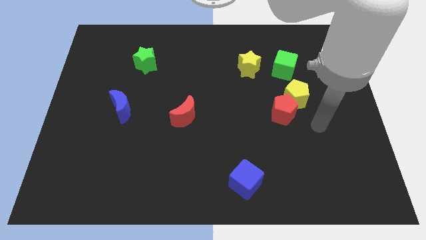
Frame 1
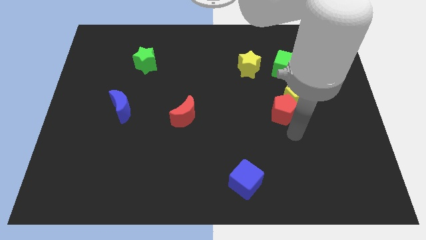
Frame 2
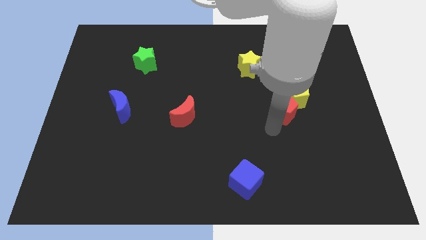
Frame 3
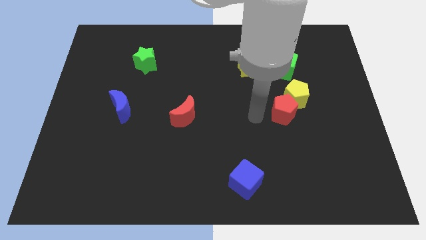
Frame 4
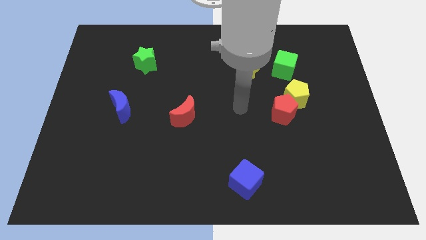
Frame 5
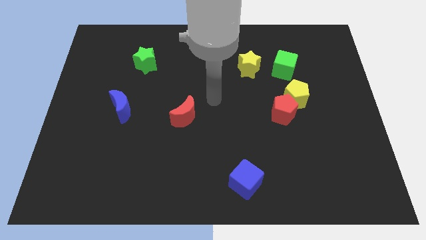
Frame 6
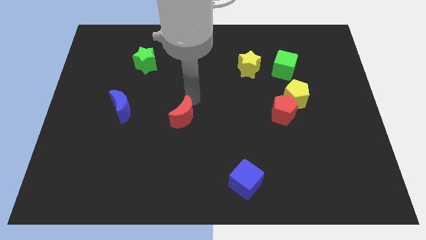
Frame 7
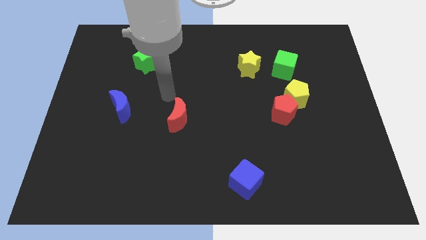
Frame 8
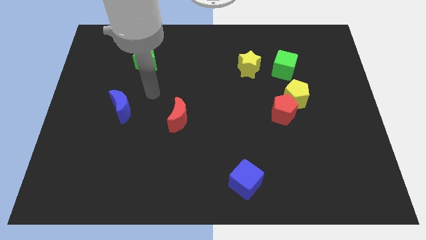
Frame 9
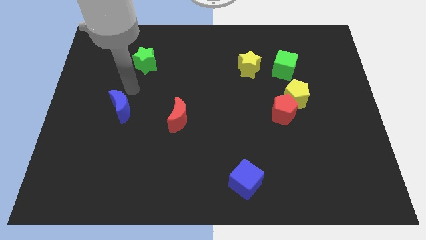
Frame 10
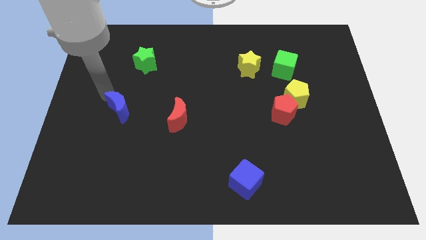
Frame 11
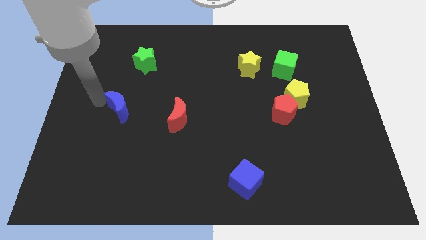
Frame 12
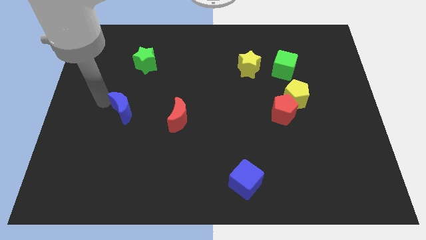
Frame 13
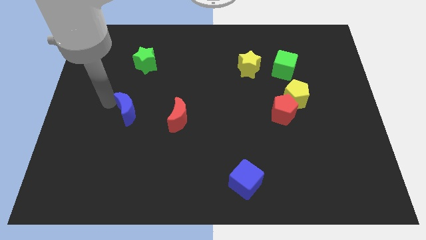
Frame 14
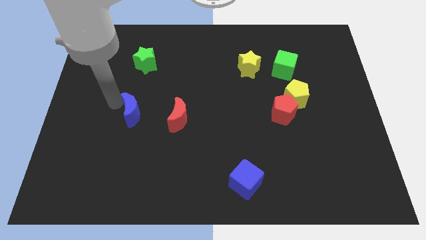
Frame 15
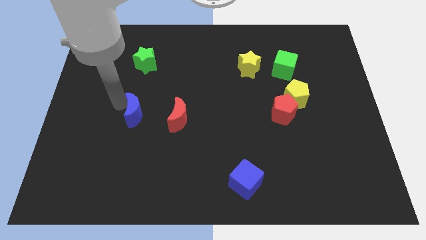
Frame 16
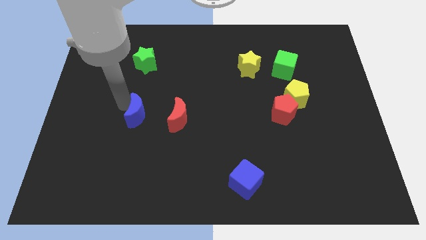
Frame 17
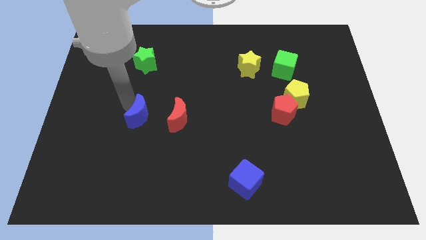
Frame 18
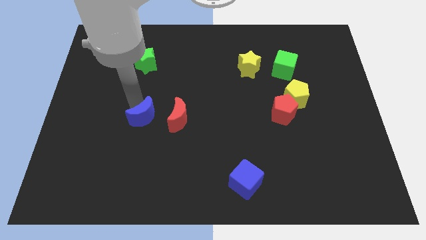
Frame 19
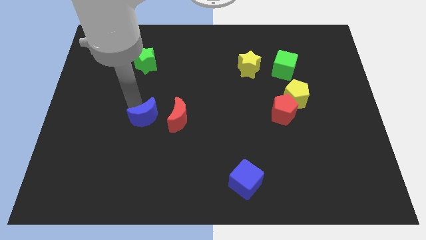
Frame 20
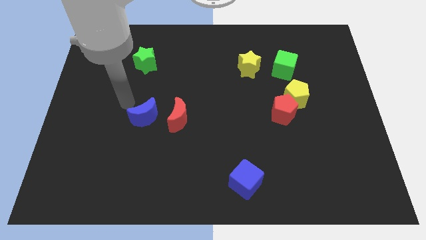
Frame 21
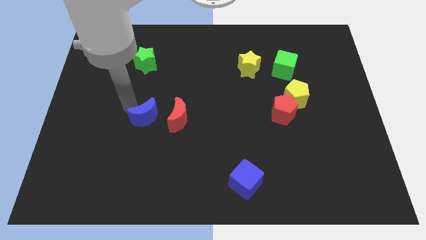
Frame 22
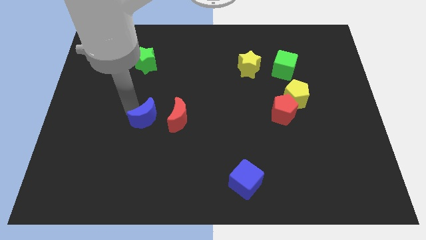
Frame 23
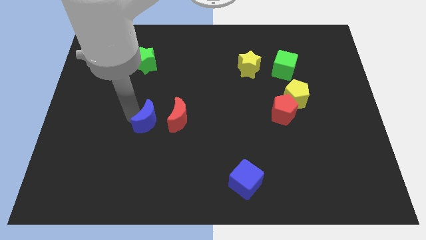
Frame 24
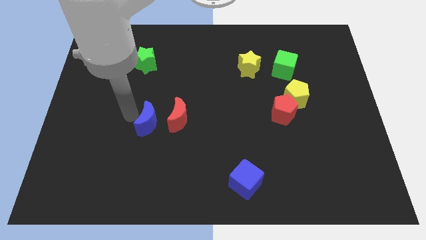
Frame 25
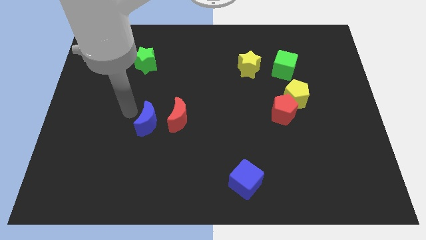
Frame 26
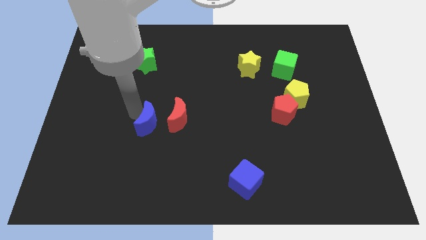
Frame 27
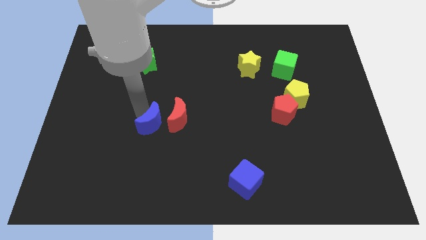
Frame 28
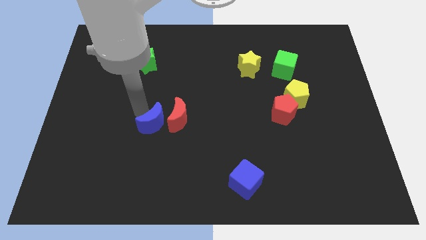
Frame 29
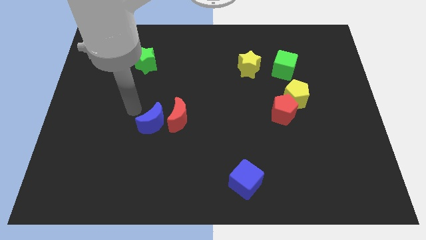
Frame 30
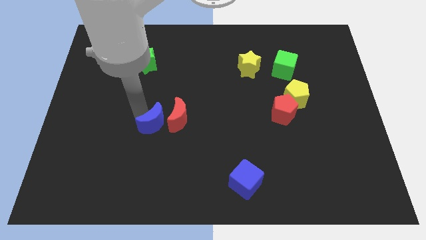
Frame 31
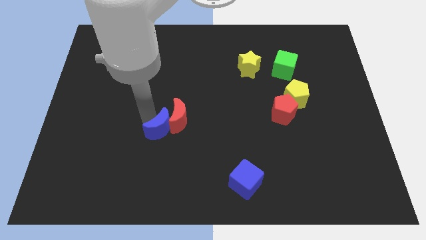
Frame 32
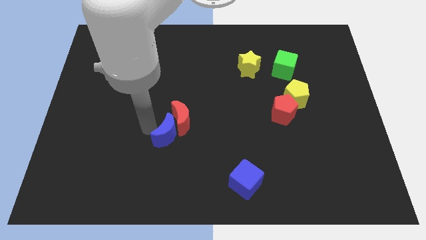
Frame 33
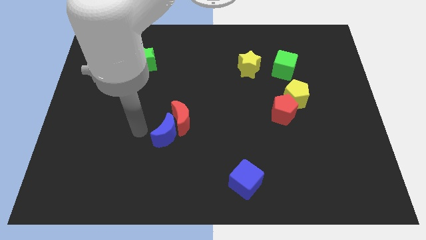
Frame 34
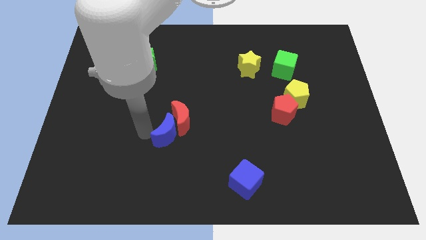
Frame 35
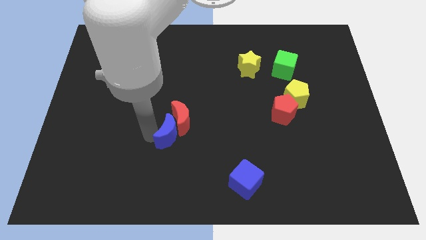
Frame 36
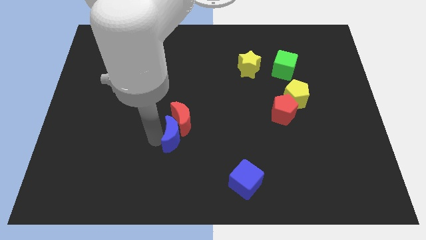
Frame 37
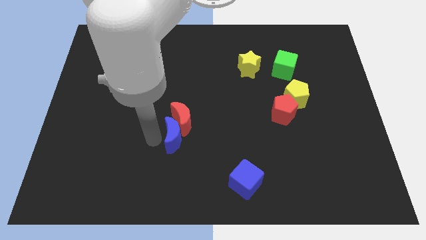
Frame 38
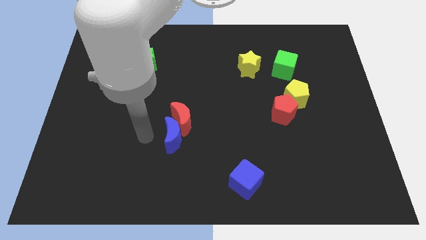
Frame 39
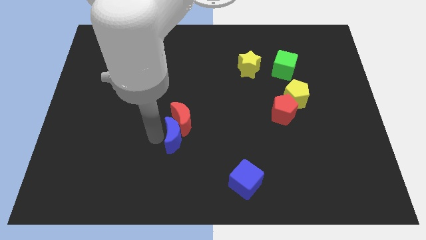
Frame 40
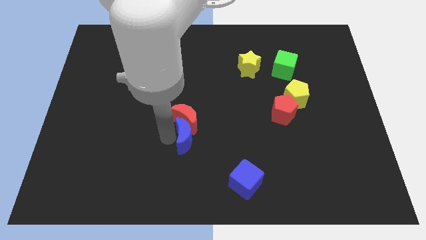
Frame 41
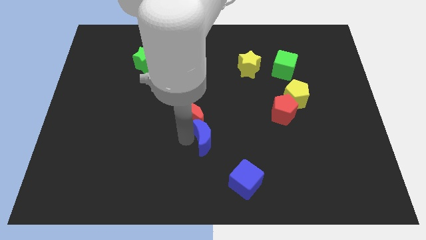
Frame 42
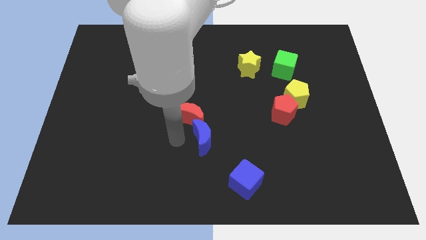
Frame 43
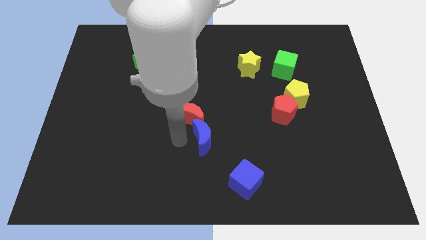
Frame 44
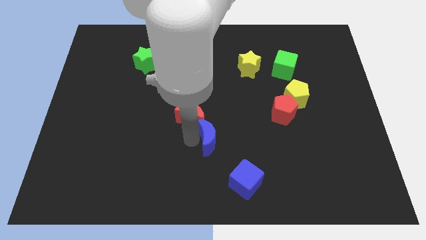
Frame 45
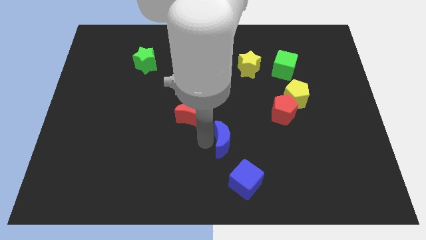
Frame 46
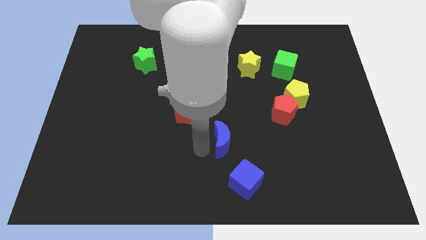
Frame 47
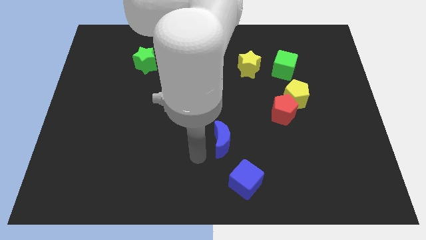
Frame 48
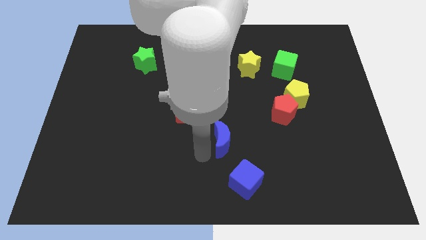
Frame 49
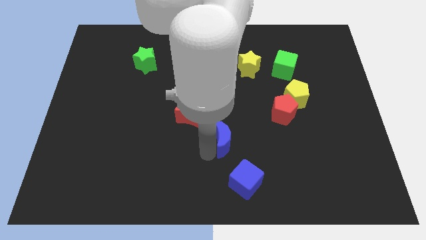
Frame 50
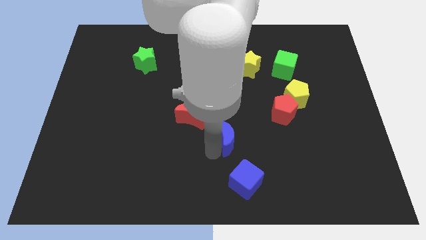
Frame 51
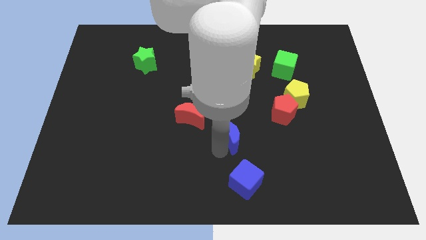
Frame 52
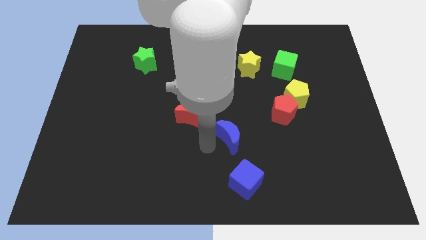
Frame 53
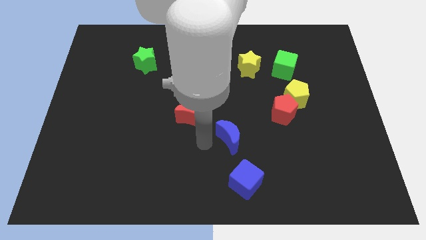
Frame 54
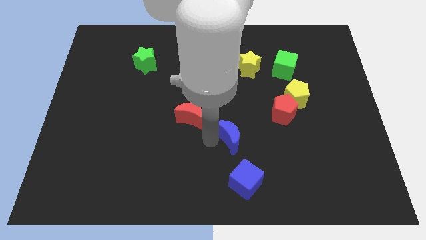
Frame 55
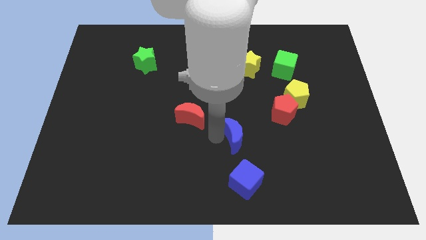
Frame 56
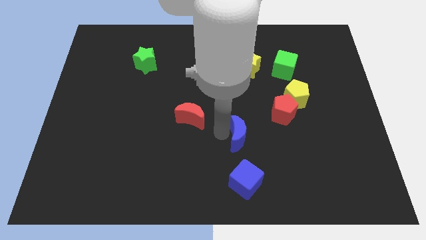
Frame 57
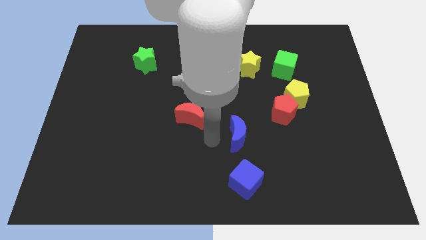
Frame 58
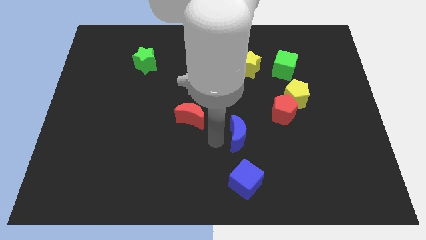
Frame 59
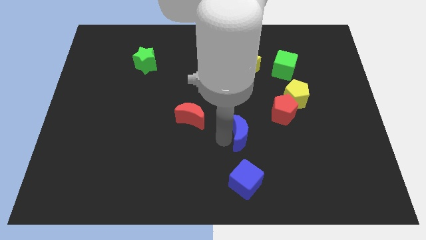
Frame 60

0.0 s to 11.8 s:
move the blue moon diagonally down and to the left of the red pentagon

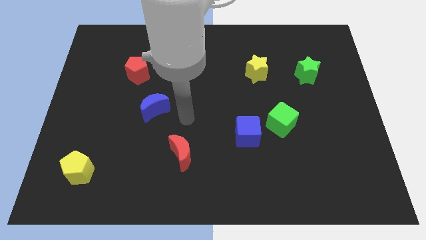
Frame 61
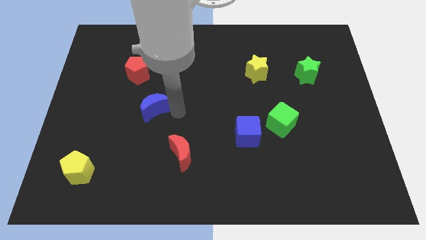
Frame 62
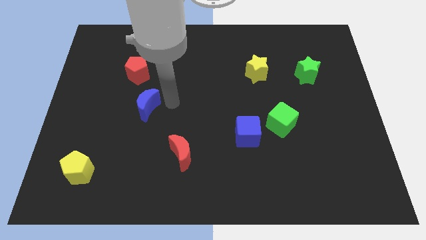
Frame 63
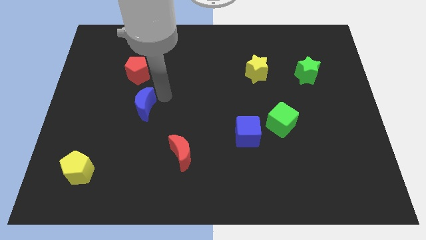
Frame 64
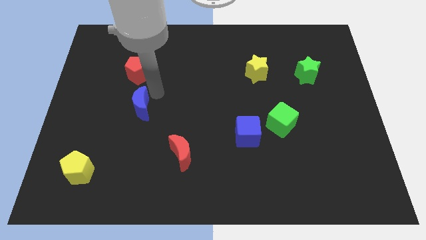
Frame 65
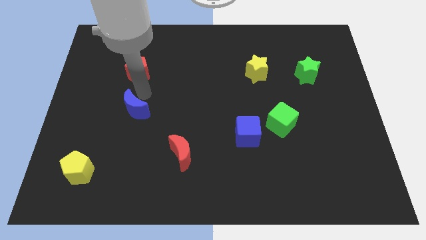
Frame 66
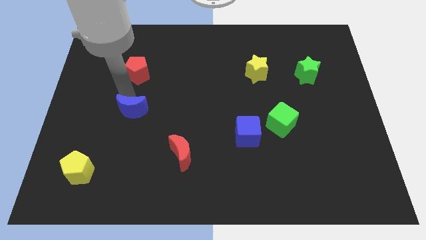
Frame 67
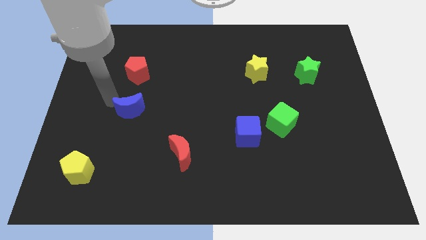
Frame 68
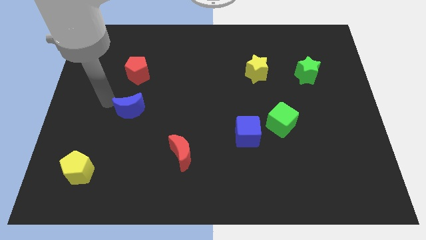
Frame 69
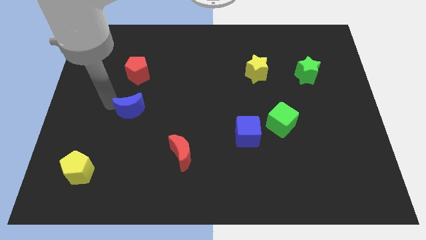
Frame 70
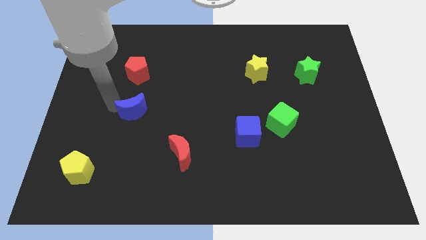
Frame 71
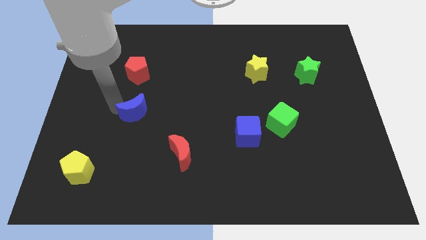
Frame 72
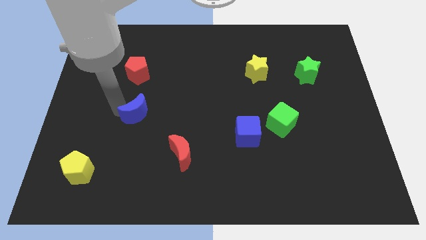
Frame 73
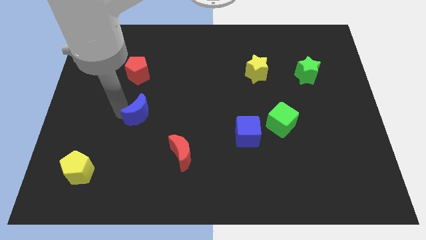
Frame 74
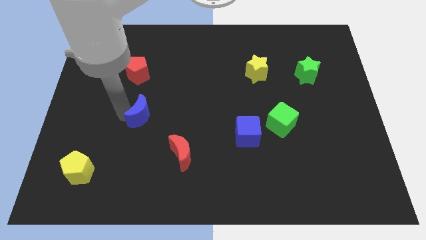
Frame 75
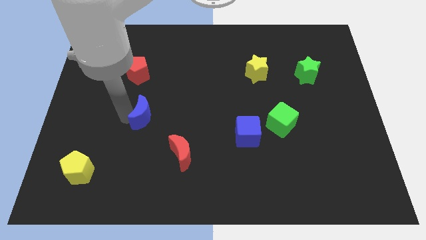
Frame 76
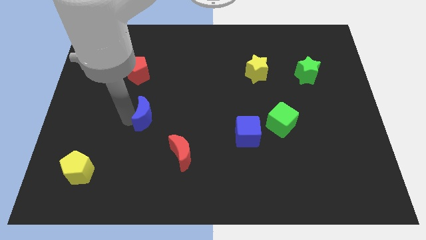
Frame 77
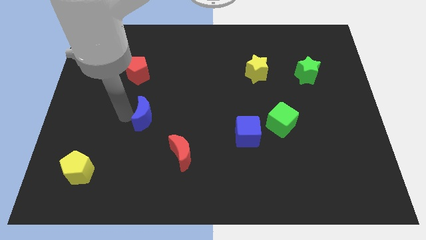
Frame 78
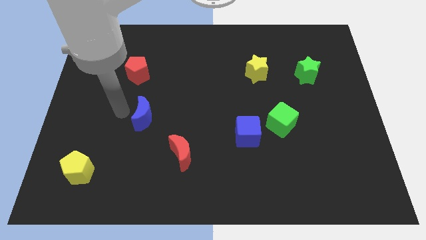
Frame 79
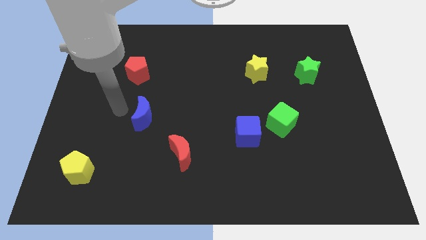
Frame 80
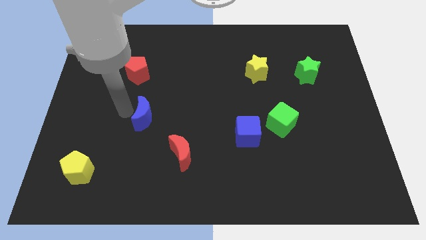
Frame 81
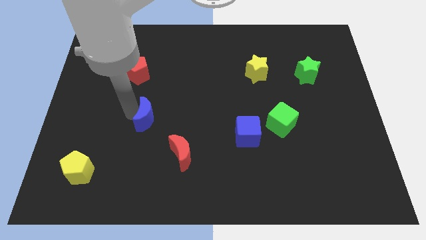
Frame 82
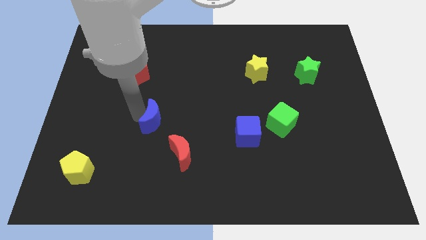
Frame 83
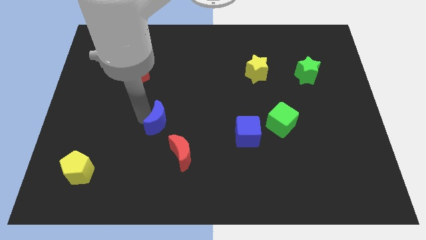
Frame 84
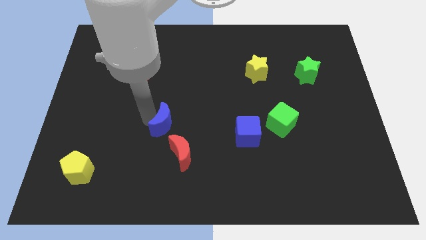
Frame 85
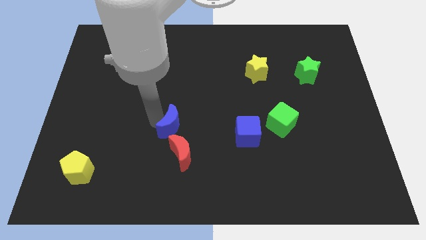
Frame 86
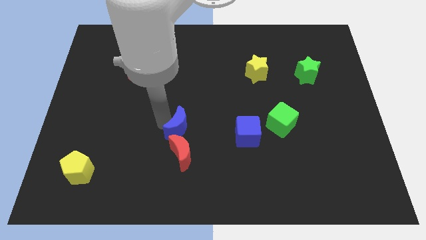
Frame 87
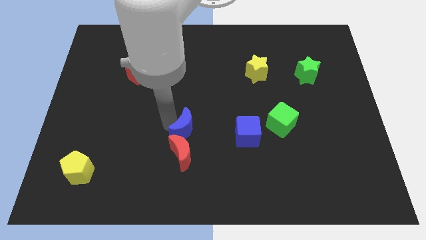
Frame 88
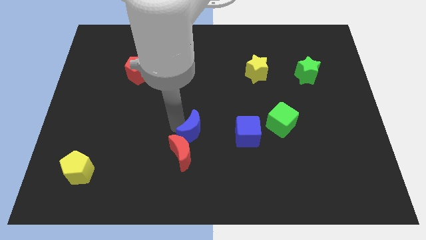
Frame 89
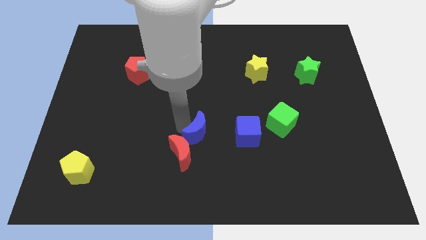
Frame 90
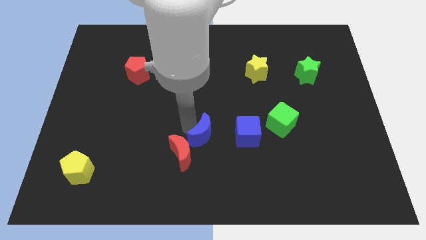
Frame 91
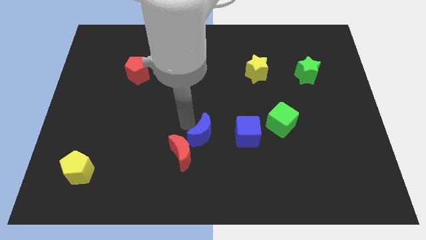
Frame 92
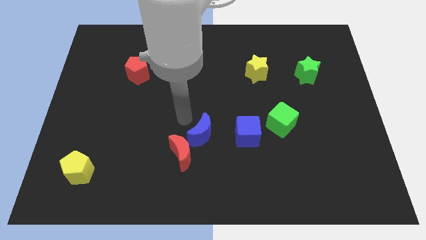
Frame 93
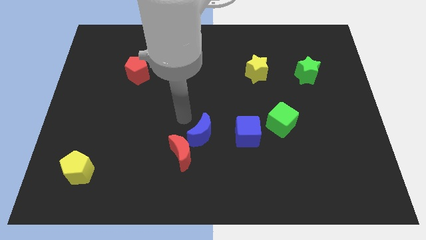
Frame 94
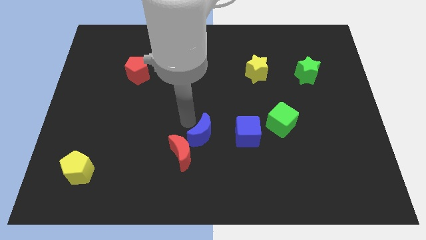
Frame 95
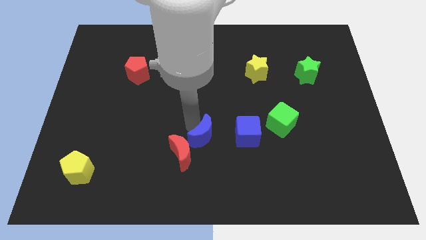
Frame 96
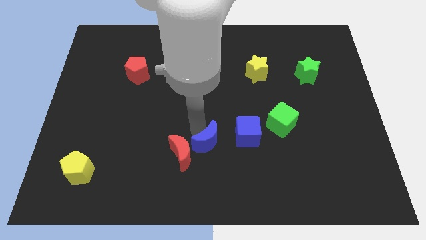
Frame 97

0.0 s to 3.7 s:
put the blue moon diagonally down and to the left of the blue cube
